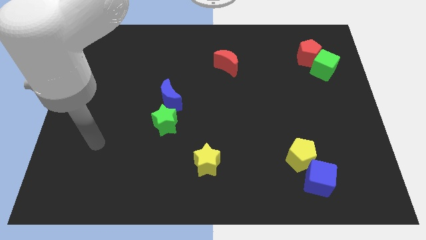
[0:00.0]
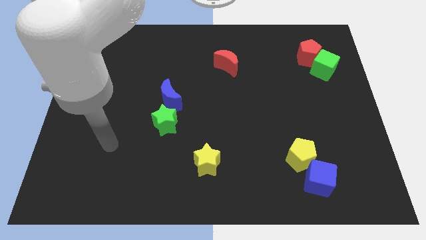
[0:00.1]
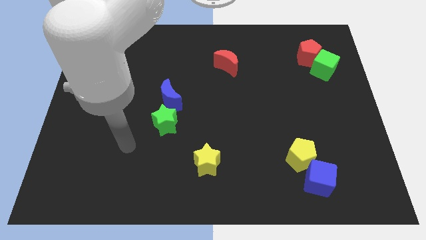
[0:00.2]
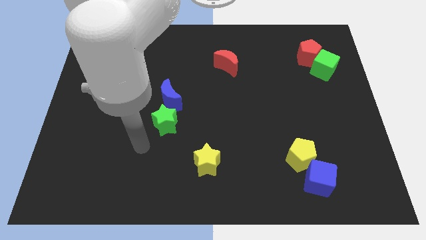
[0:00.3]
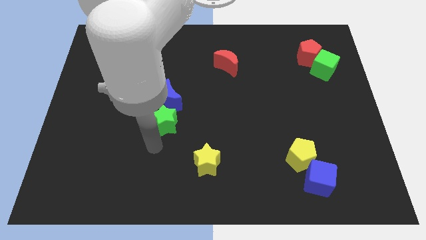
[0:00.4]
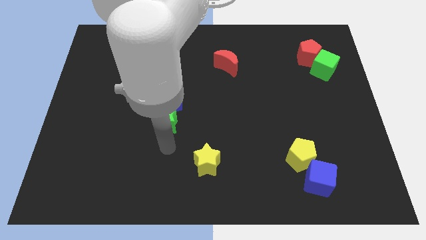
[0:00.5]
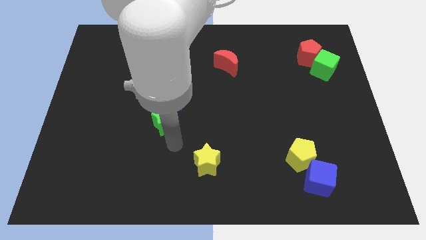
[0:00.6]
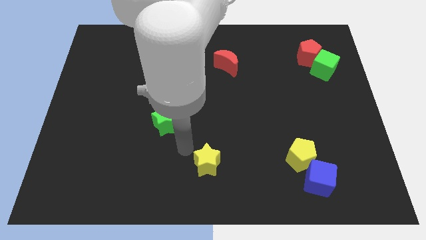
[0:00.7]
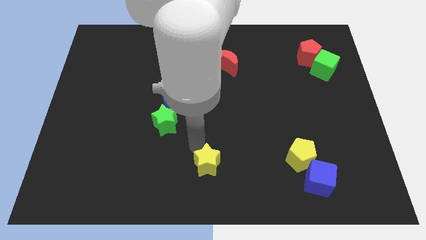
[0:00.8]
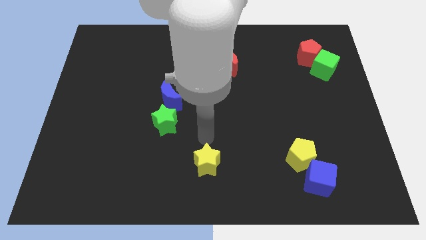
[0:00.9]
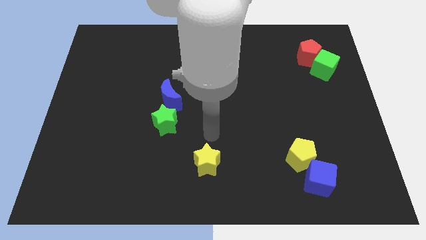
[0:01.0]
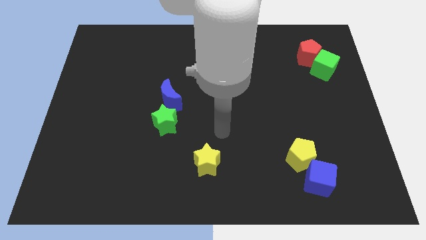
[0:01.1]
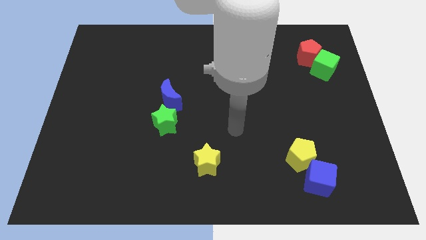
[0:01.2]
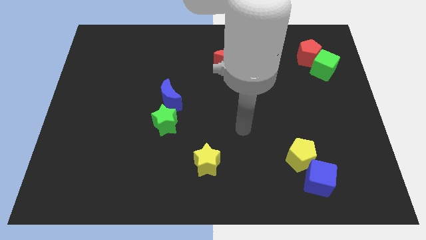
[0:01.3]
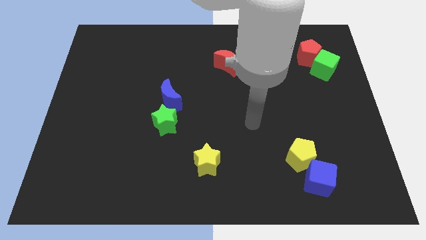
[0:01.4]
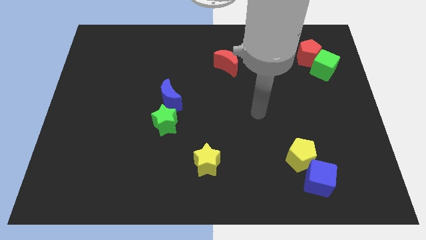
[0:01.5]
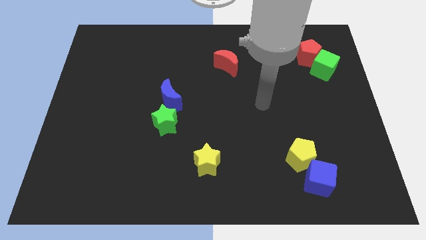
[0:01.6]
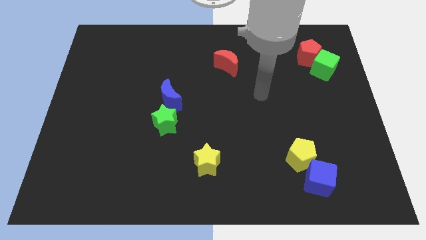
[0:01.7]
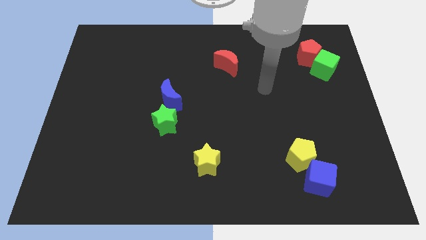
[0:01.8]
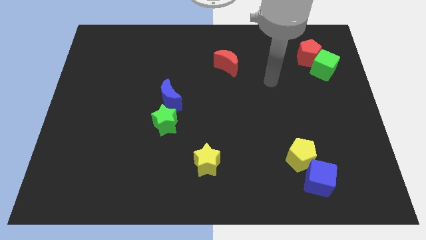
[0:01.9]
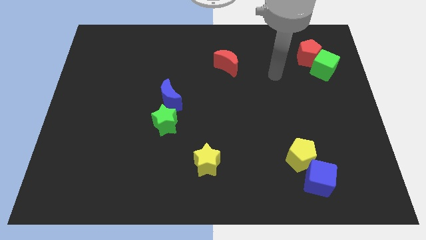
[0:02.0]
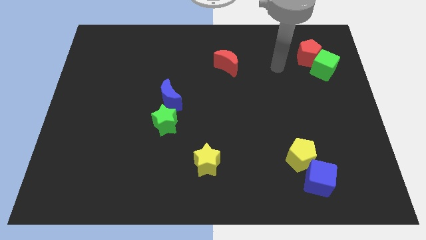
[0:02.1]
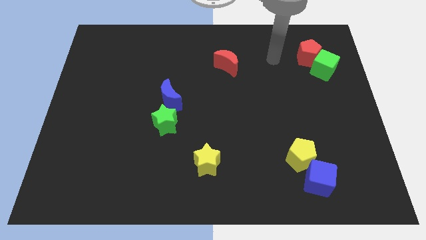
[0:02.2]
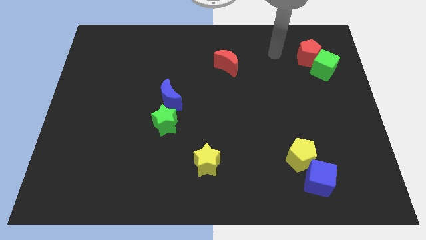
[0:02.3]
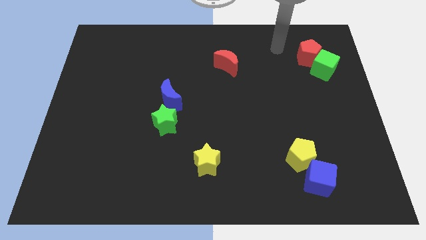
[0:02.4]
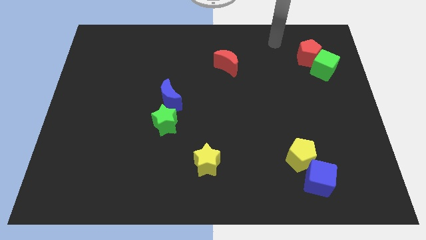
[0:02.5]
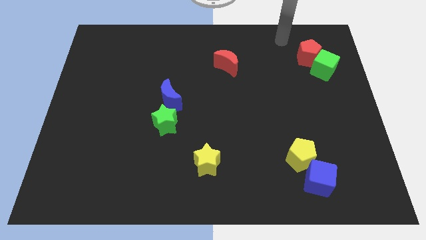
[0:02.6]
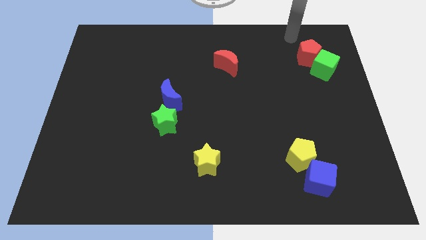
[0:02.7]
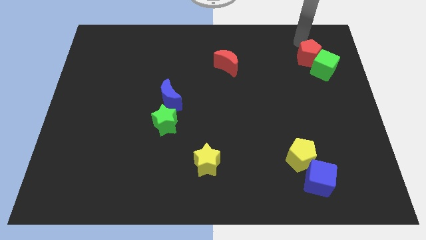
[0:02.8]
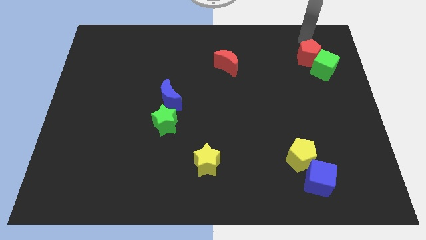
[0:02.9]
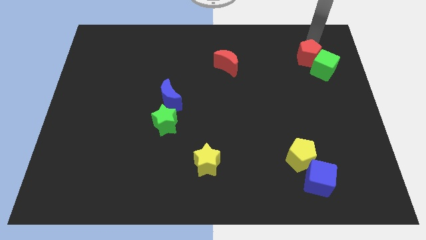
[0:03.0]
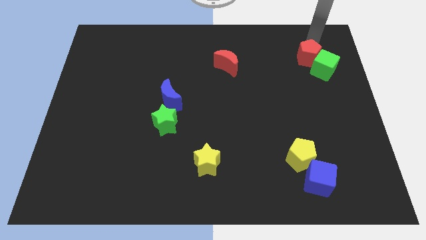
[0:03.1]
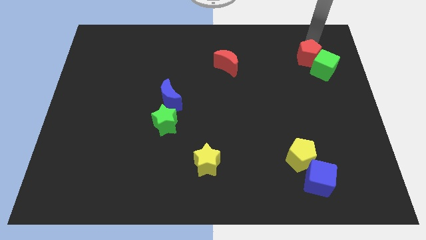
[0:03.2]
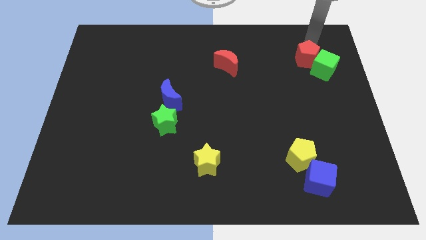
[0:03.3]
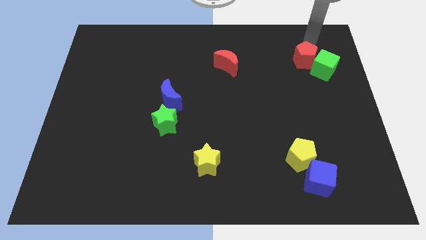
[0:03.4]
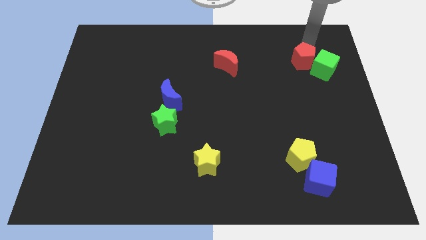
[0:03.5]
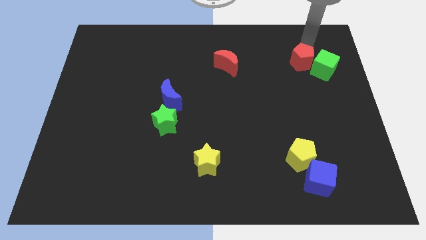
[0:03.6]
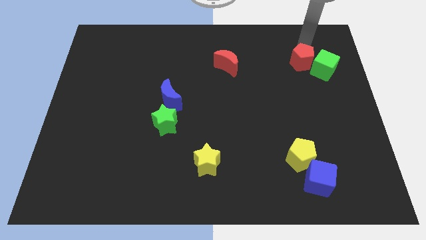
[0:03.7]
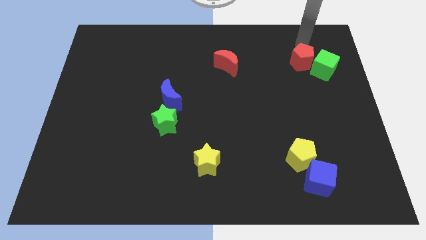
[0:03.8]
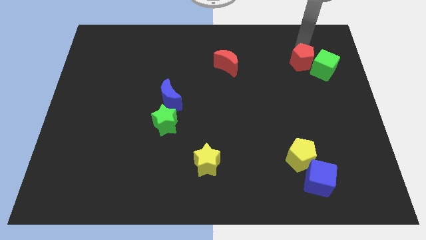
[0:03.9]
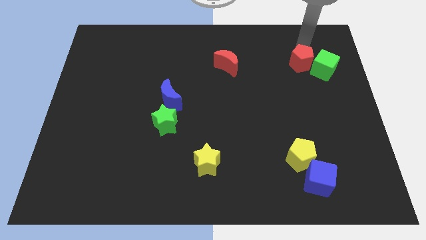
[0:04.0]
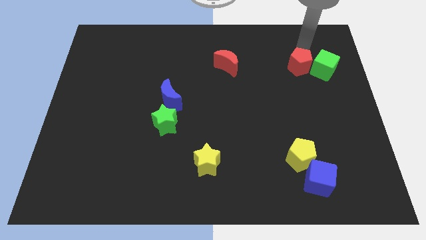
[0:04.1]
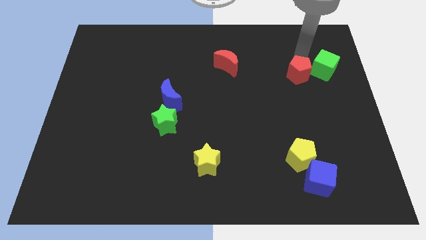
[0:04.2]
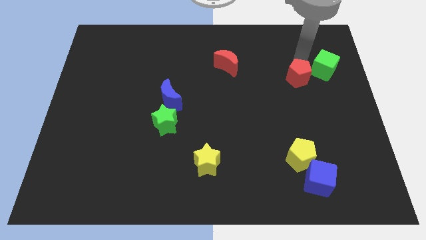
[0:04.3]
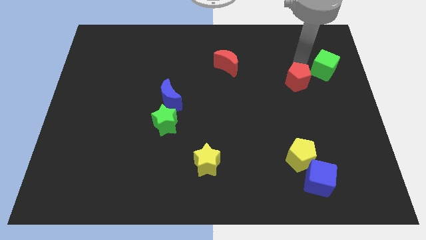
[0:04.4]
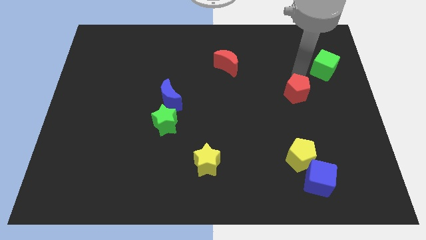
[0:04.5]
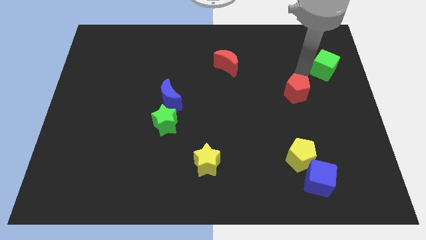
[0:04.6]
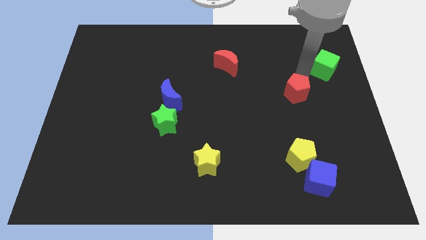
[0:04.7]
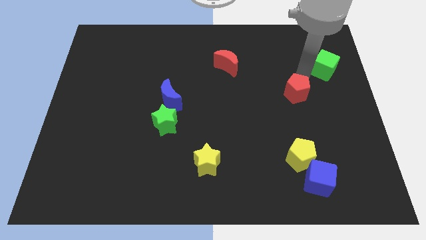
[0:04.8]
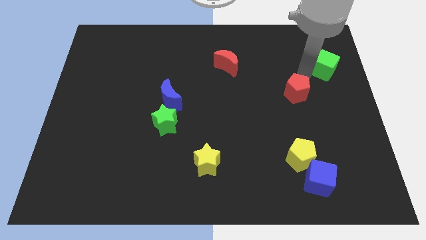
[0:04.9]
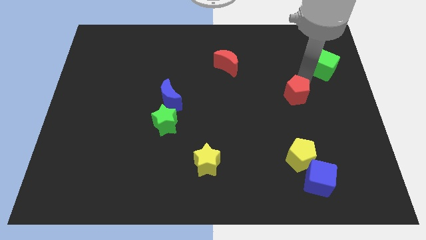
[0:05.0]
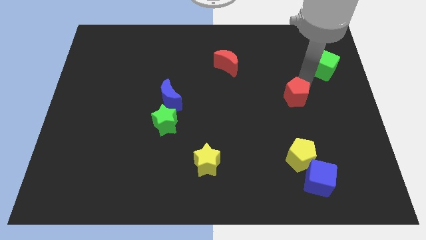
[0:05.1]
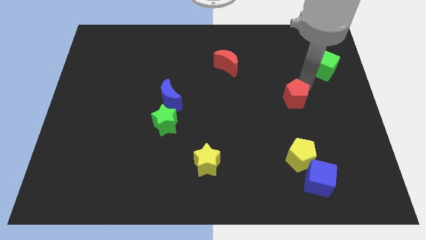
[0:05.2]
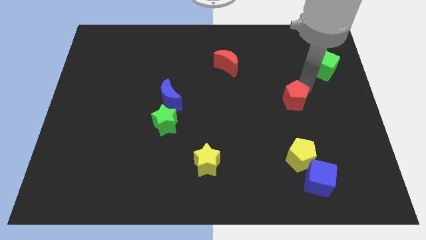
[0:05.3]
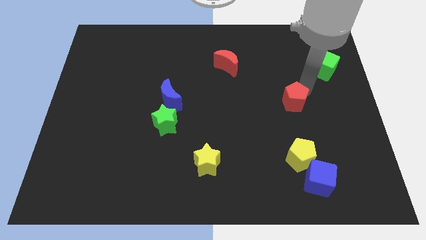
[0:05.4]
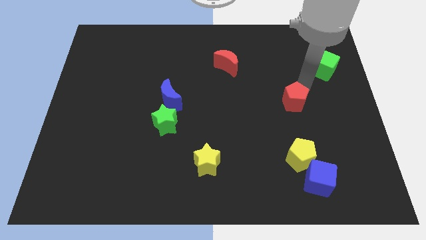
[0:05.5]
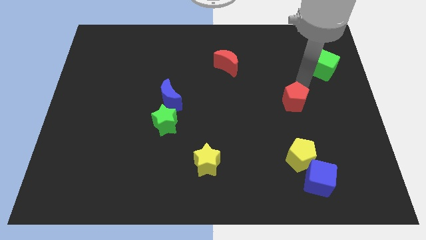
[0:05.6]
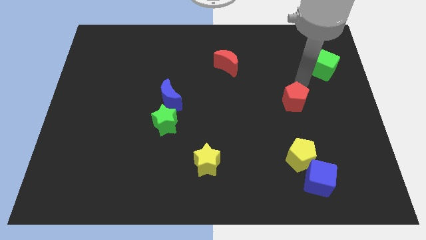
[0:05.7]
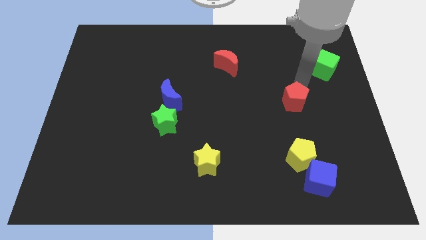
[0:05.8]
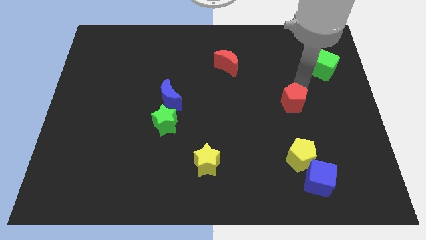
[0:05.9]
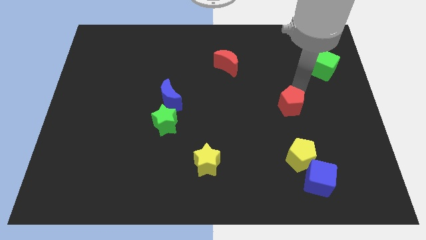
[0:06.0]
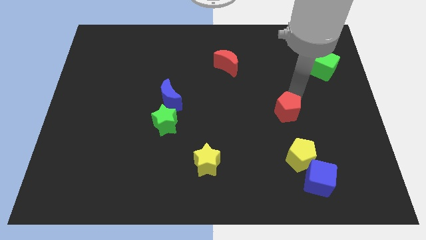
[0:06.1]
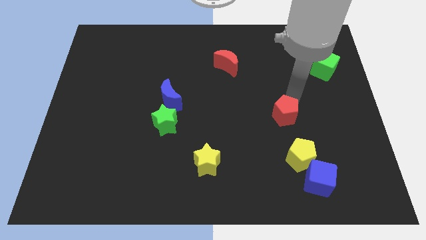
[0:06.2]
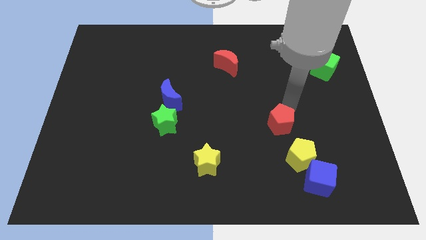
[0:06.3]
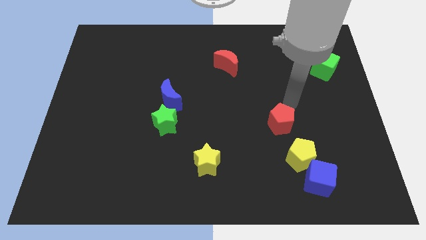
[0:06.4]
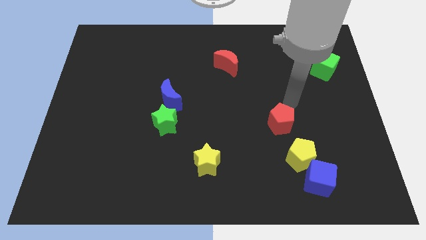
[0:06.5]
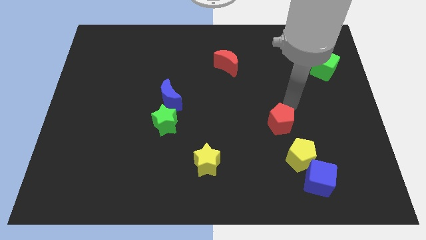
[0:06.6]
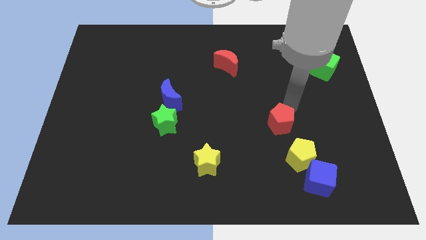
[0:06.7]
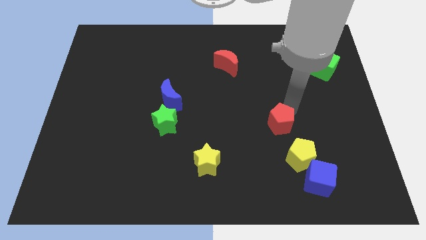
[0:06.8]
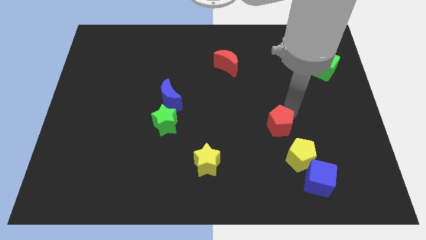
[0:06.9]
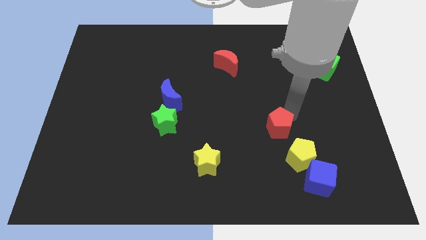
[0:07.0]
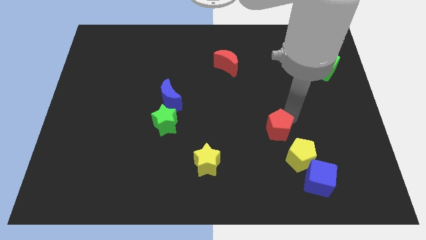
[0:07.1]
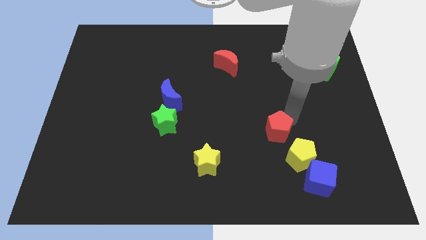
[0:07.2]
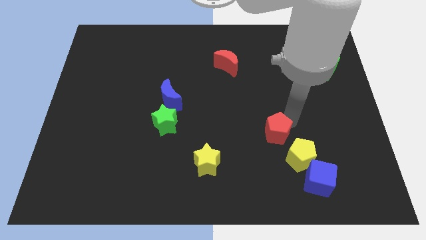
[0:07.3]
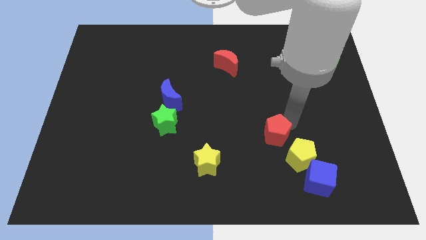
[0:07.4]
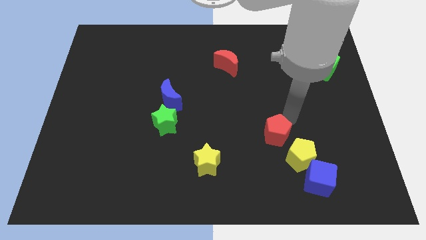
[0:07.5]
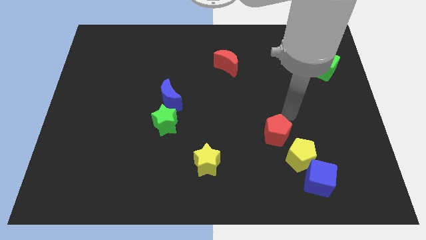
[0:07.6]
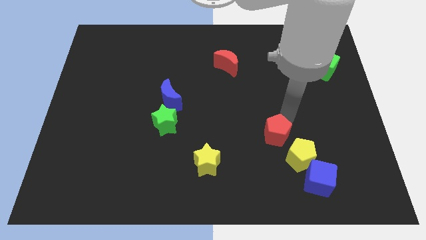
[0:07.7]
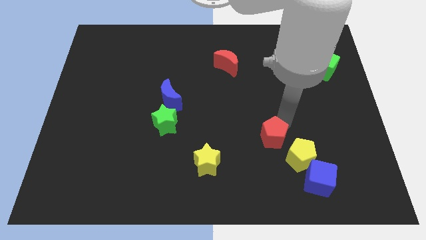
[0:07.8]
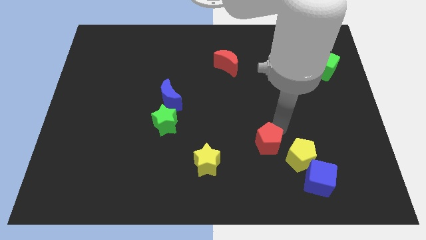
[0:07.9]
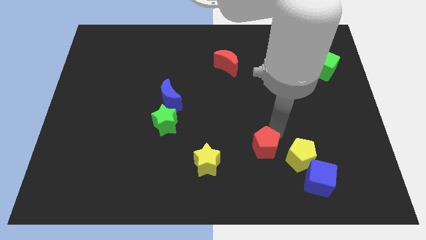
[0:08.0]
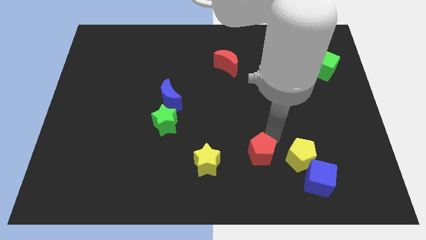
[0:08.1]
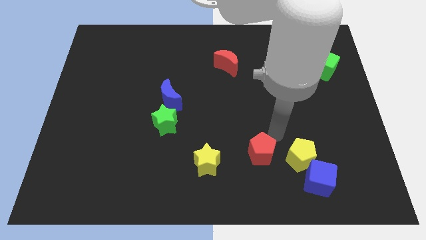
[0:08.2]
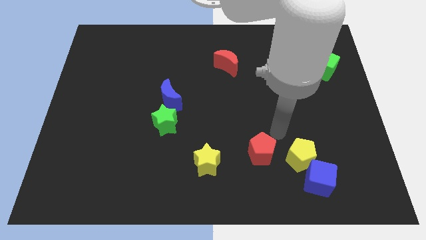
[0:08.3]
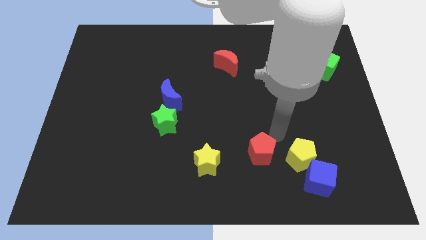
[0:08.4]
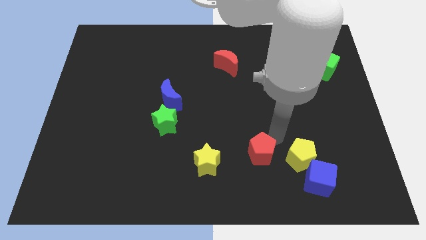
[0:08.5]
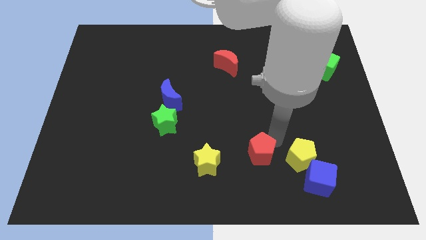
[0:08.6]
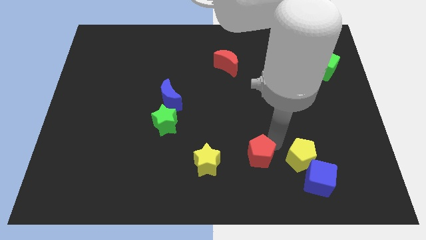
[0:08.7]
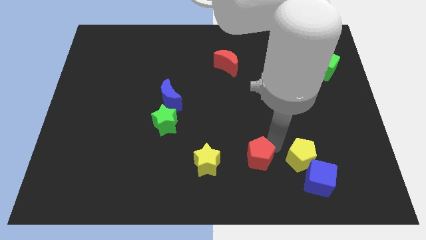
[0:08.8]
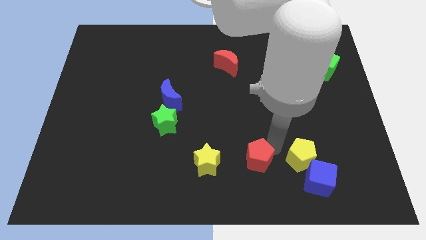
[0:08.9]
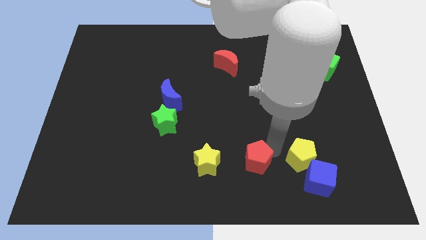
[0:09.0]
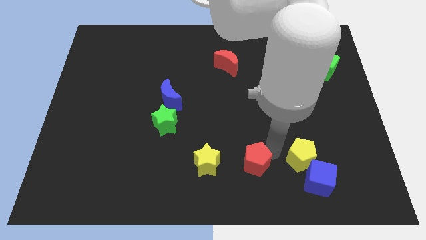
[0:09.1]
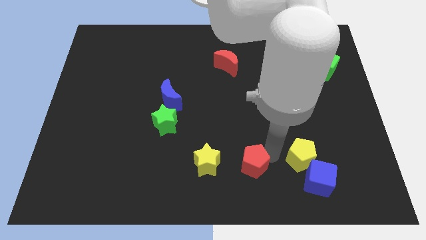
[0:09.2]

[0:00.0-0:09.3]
slide the red pentagon to the bottom side
